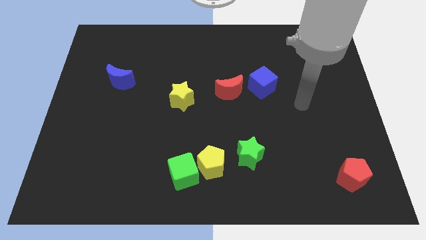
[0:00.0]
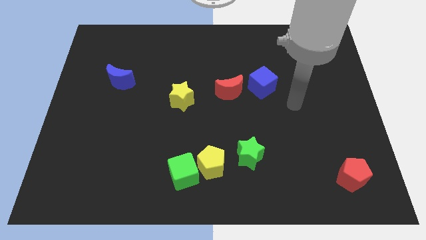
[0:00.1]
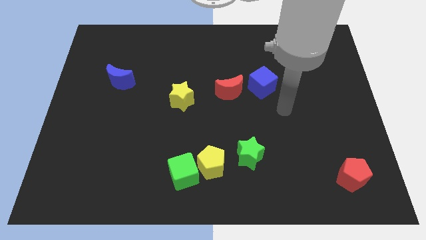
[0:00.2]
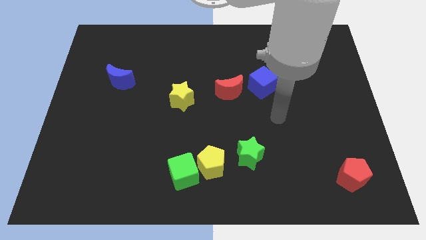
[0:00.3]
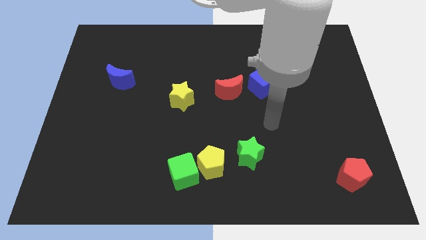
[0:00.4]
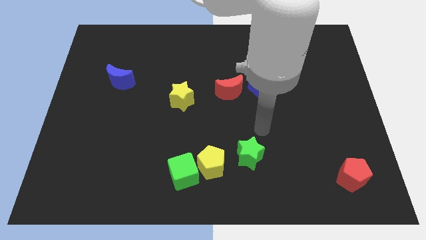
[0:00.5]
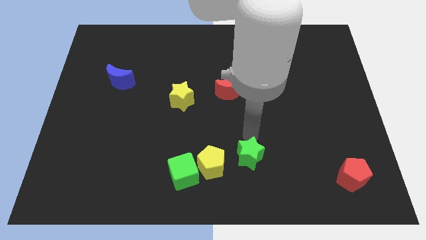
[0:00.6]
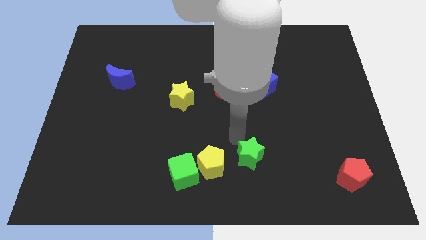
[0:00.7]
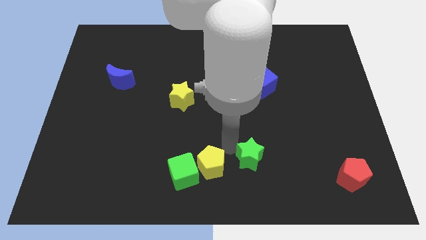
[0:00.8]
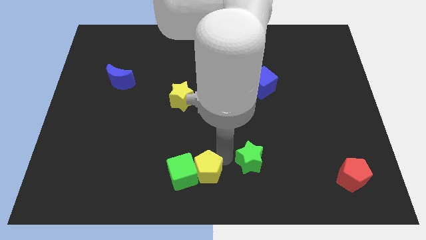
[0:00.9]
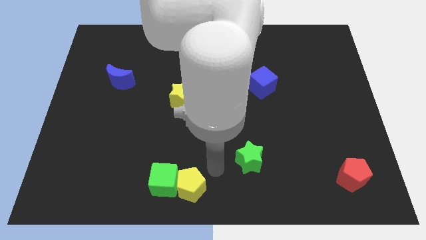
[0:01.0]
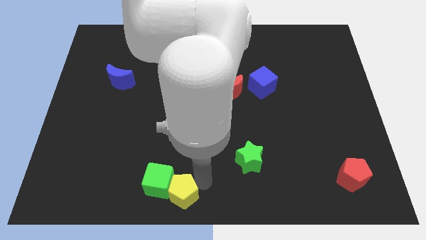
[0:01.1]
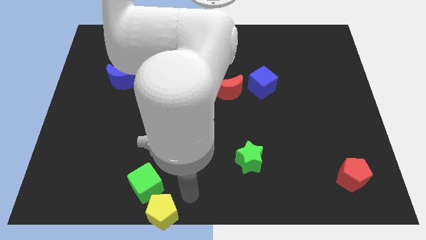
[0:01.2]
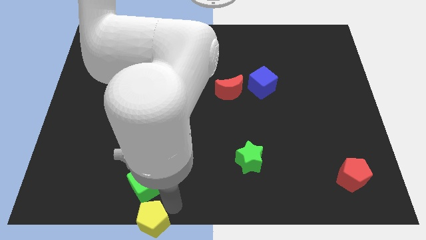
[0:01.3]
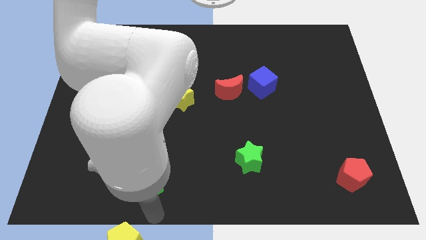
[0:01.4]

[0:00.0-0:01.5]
separate the green cube from the yellow pentagon

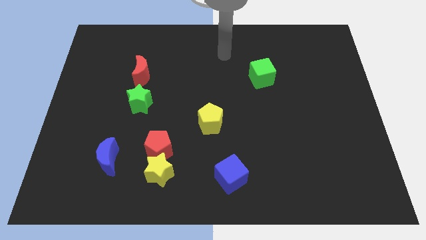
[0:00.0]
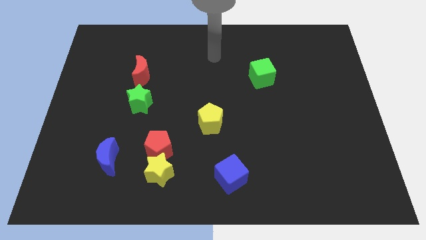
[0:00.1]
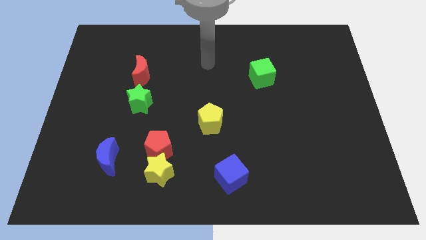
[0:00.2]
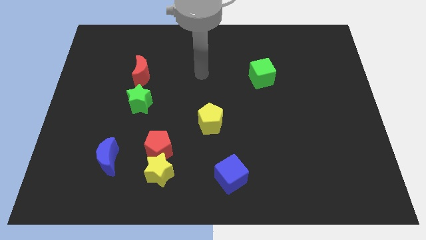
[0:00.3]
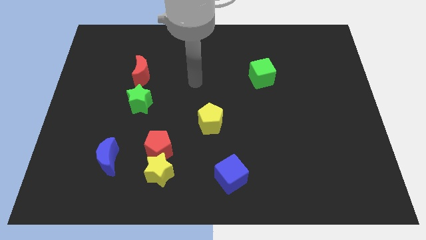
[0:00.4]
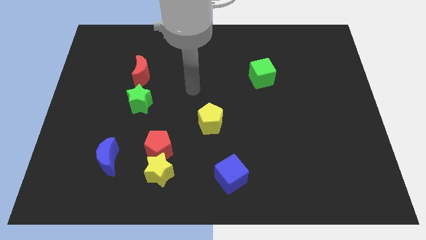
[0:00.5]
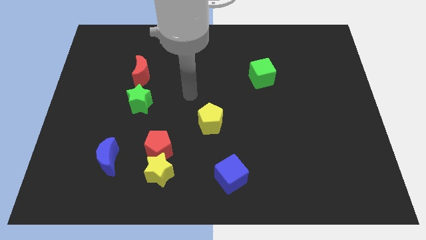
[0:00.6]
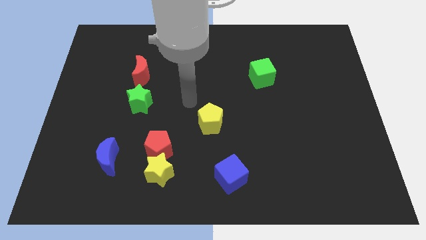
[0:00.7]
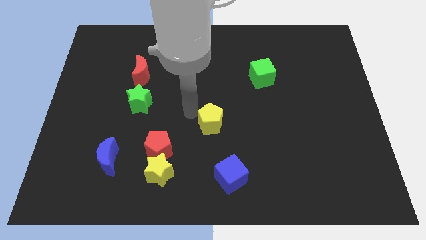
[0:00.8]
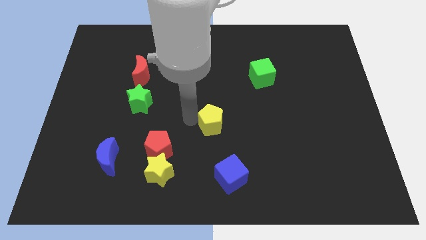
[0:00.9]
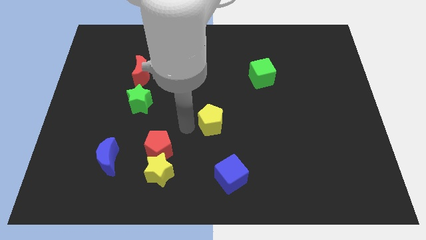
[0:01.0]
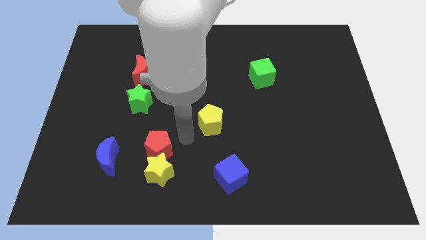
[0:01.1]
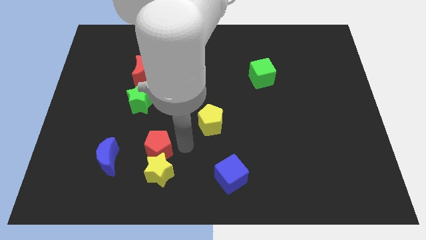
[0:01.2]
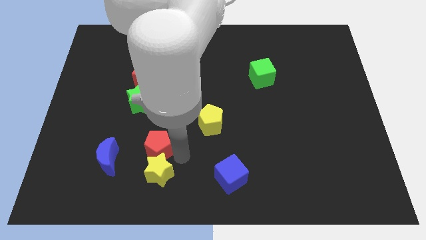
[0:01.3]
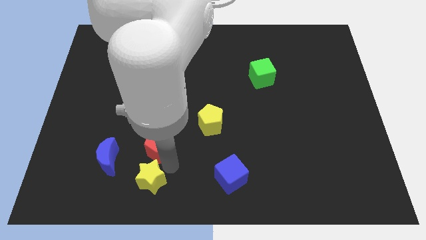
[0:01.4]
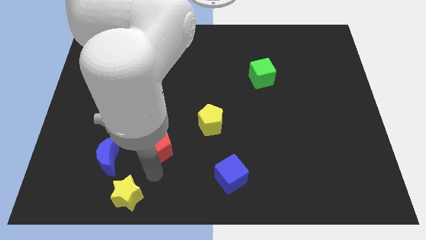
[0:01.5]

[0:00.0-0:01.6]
pull the red pentagon apart from the yellow star

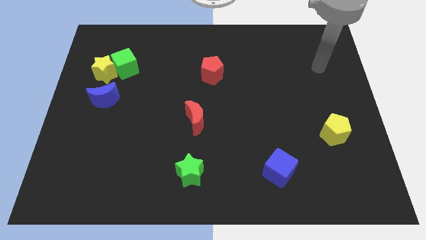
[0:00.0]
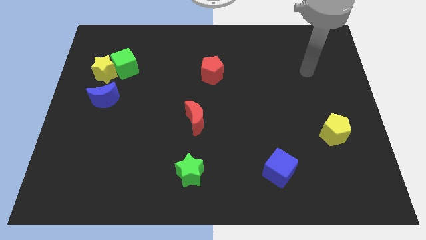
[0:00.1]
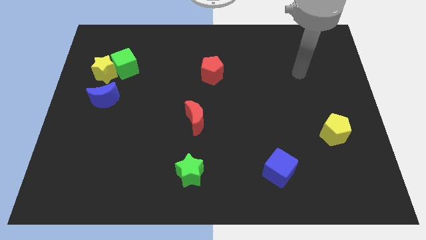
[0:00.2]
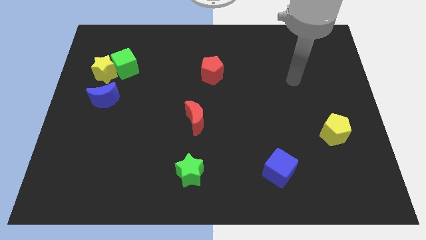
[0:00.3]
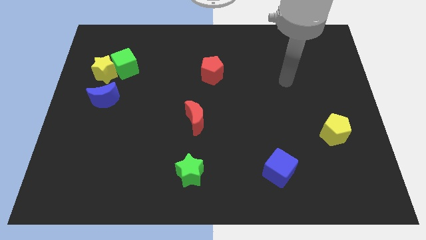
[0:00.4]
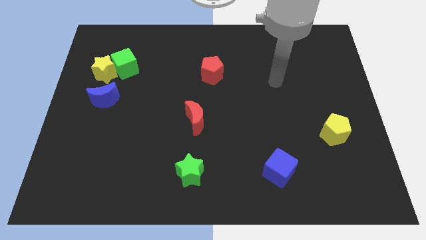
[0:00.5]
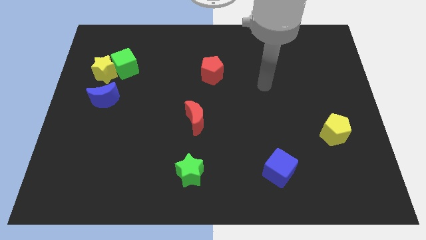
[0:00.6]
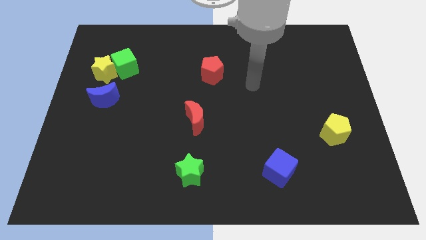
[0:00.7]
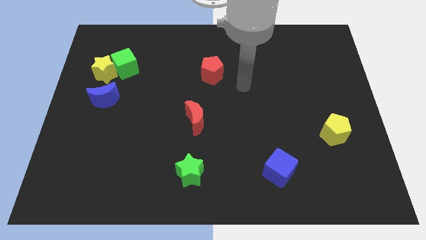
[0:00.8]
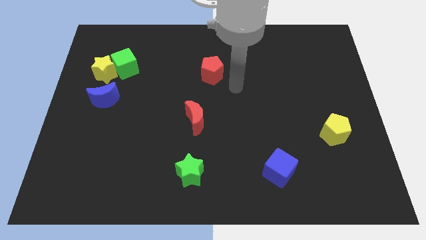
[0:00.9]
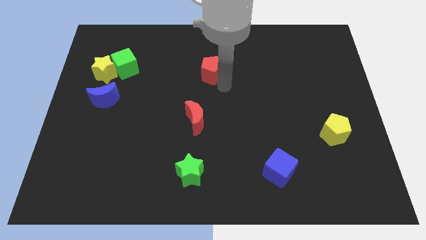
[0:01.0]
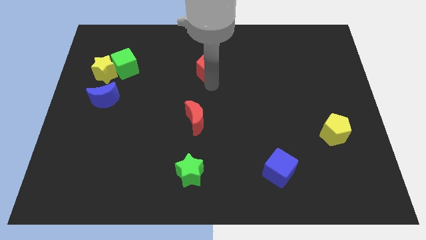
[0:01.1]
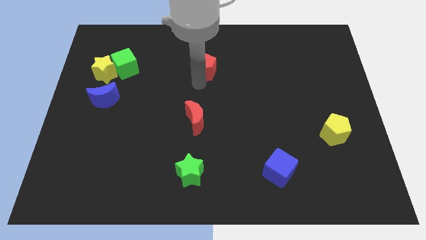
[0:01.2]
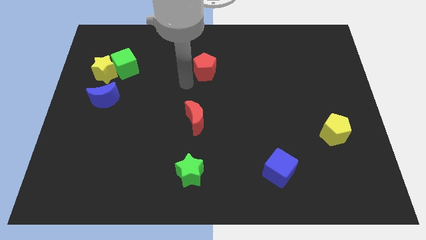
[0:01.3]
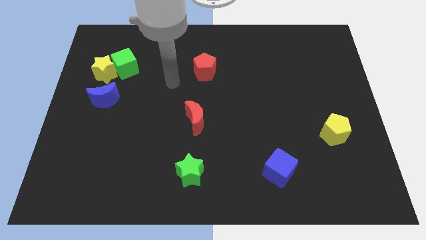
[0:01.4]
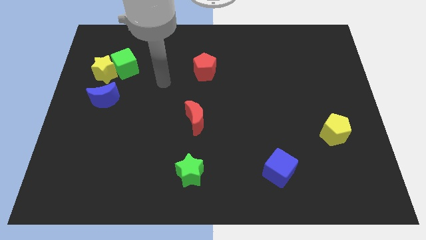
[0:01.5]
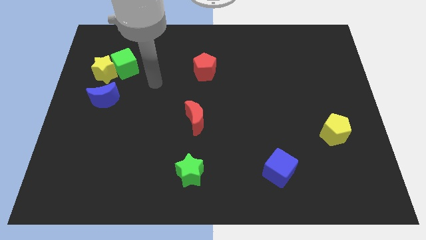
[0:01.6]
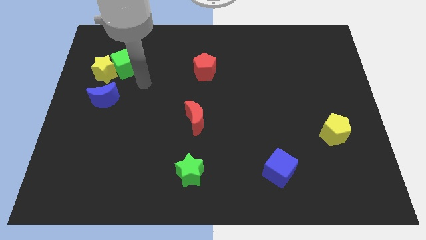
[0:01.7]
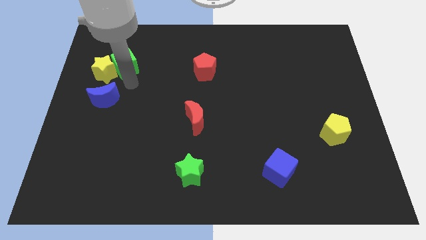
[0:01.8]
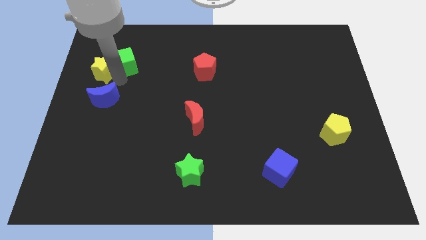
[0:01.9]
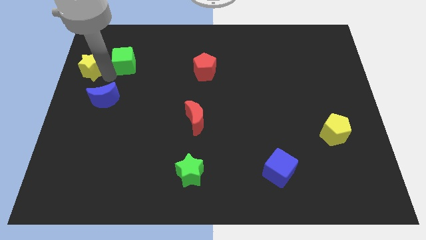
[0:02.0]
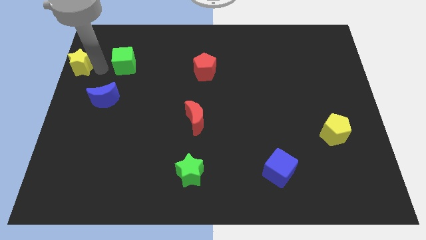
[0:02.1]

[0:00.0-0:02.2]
separate the green cube from the yellow star

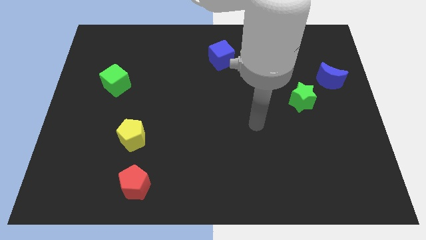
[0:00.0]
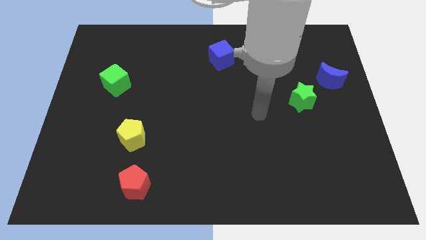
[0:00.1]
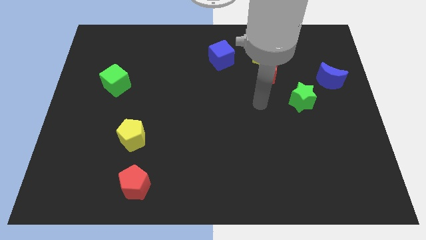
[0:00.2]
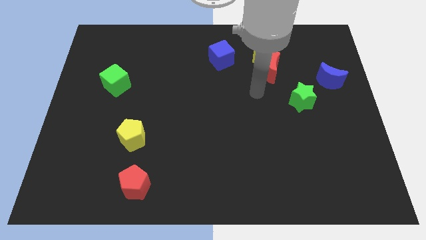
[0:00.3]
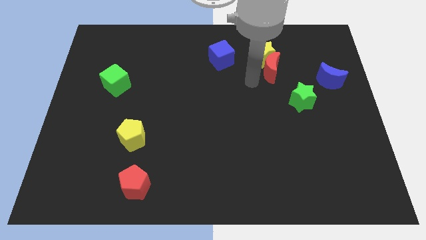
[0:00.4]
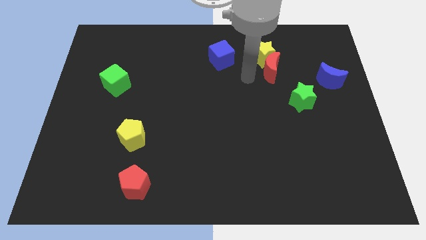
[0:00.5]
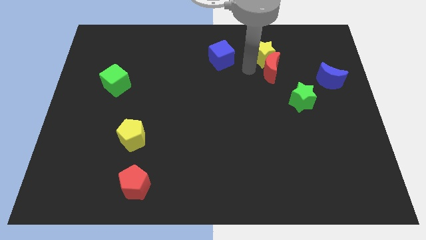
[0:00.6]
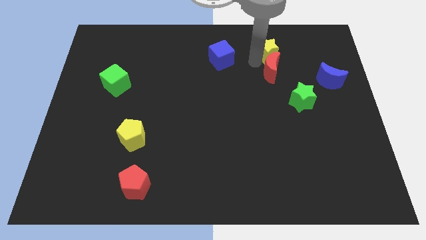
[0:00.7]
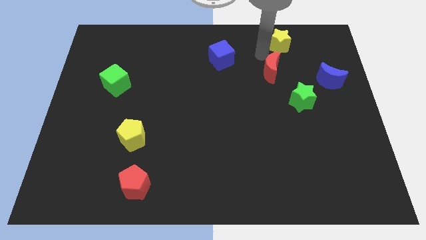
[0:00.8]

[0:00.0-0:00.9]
pull the red moon apart from the yellow star

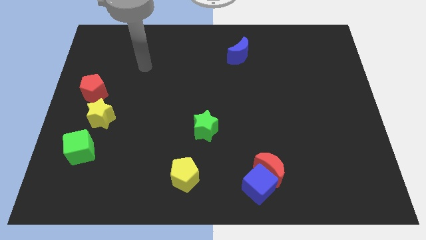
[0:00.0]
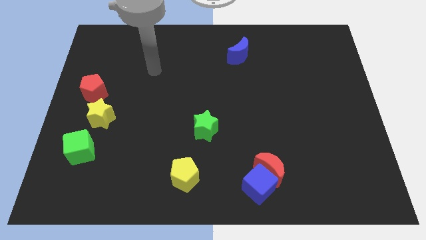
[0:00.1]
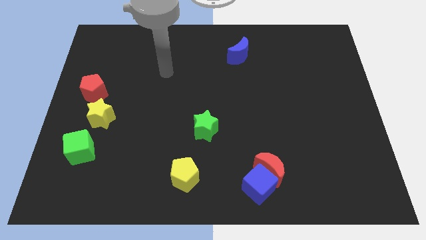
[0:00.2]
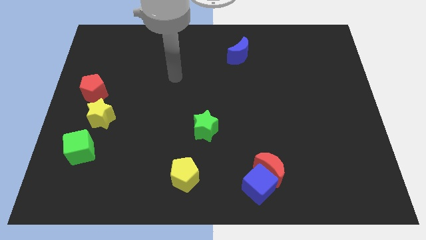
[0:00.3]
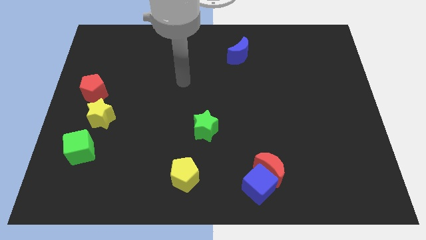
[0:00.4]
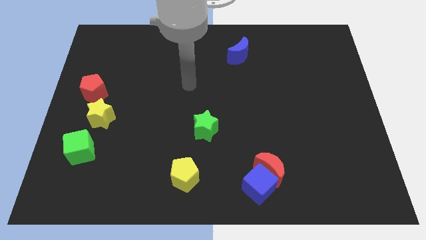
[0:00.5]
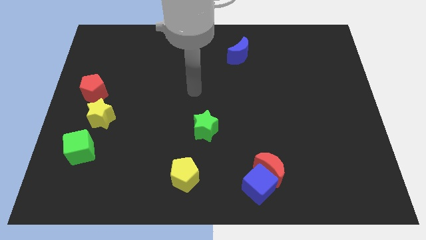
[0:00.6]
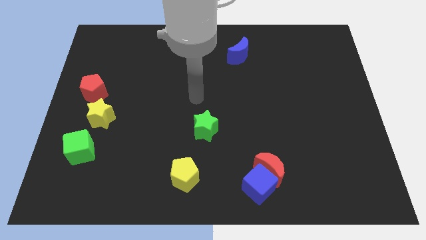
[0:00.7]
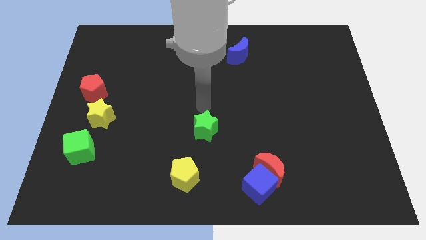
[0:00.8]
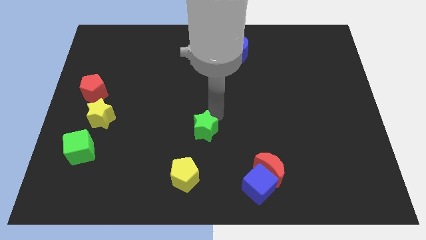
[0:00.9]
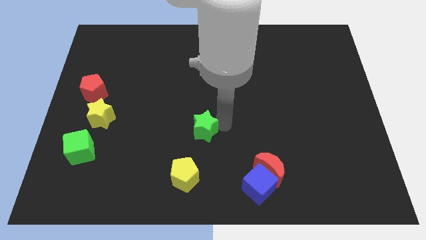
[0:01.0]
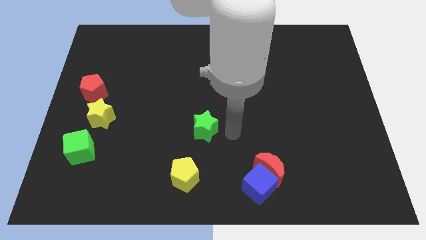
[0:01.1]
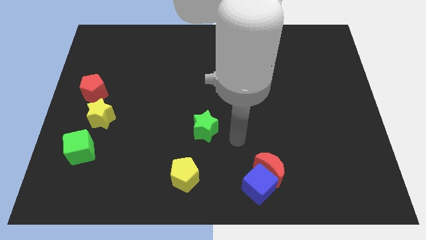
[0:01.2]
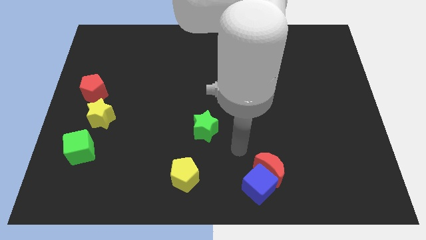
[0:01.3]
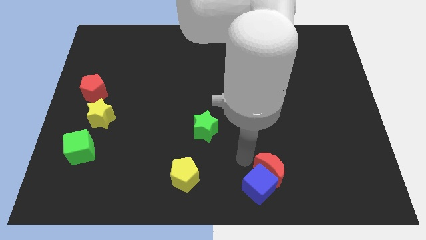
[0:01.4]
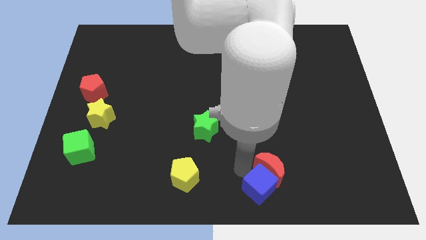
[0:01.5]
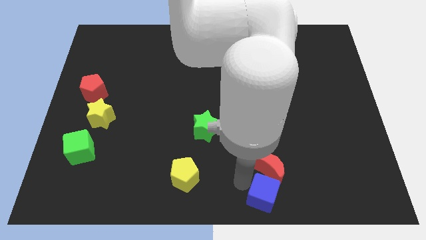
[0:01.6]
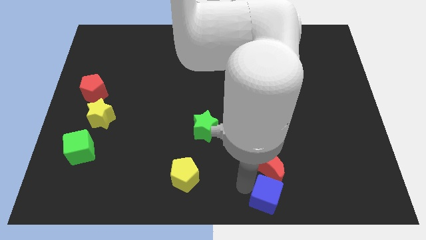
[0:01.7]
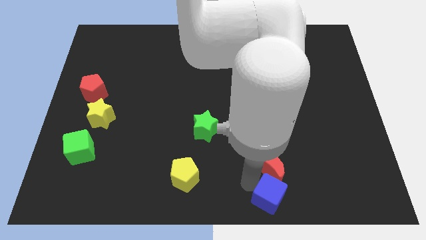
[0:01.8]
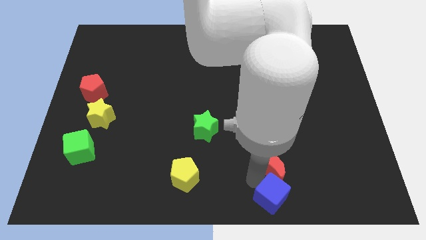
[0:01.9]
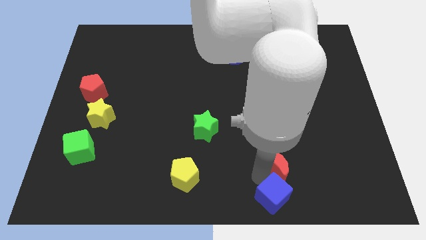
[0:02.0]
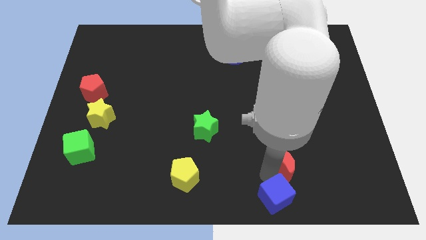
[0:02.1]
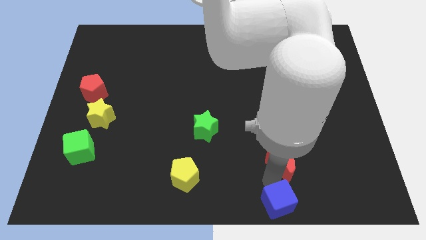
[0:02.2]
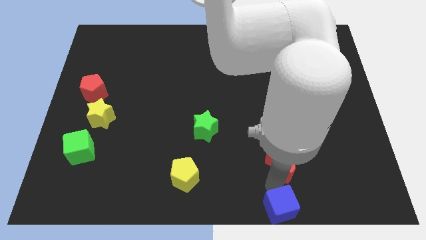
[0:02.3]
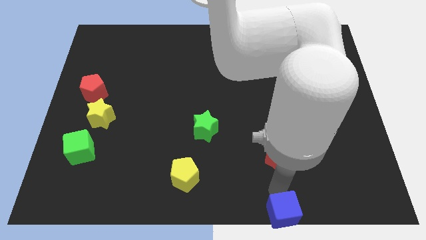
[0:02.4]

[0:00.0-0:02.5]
separate the red moon from the blue cube

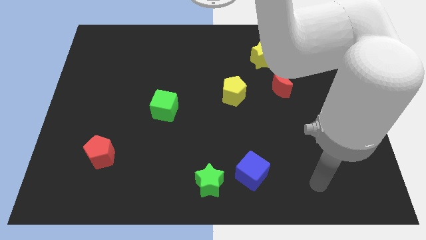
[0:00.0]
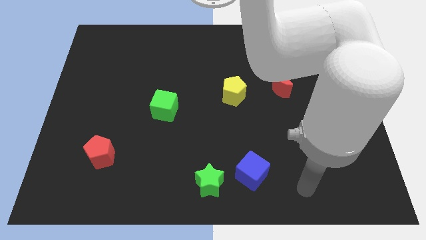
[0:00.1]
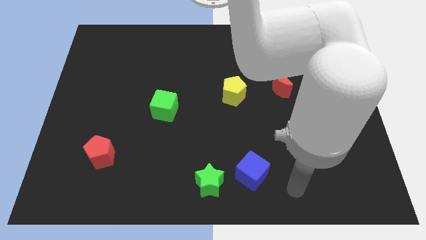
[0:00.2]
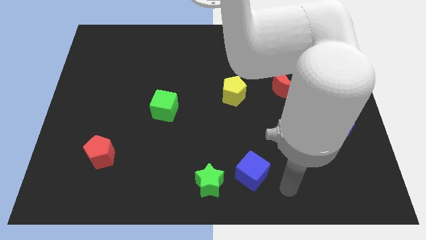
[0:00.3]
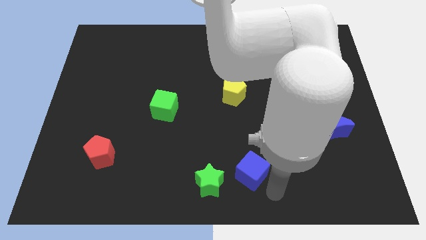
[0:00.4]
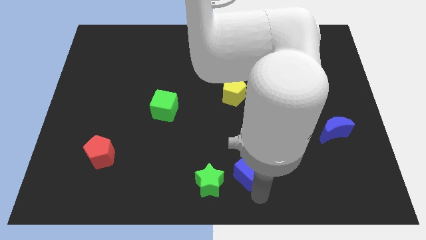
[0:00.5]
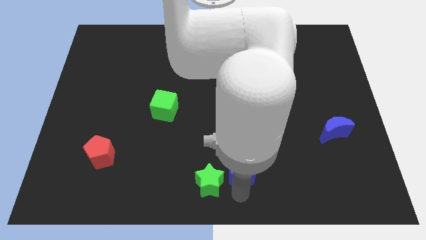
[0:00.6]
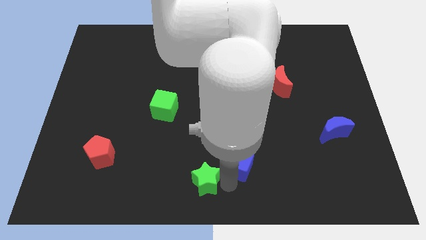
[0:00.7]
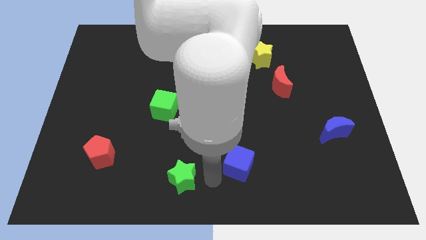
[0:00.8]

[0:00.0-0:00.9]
move the blue cube away from the green star
